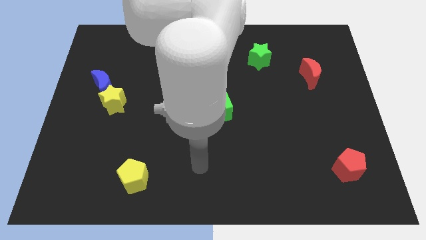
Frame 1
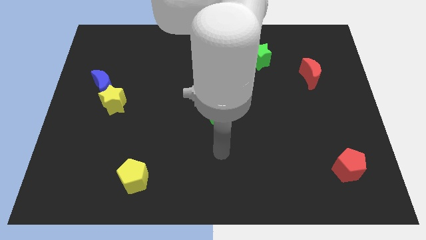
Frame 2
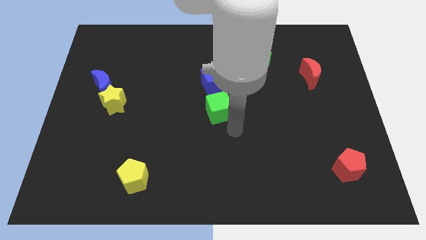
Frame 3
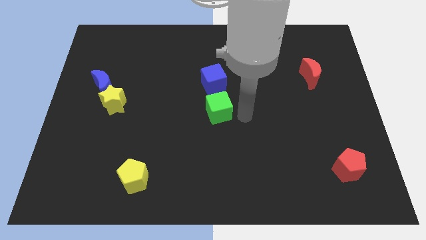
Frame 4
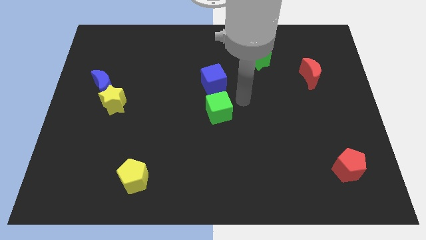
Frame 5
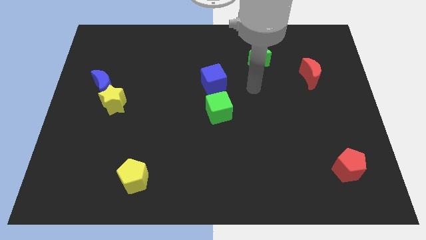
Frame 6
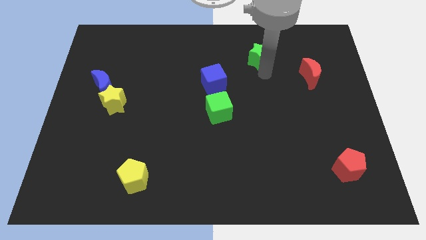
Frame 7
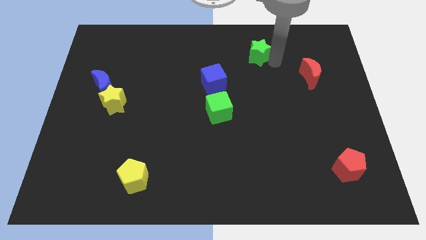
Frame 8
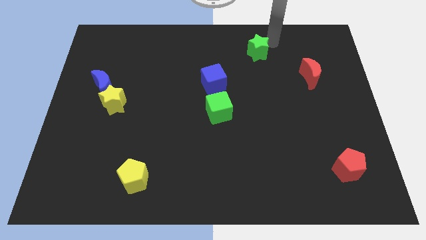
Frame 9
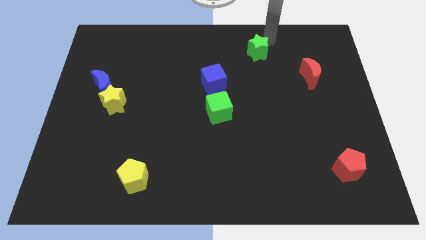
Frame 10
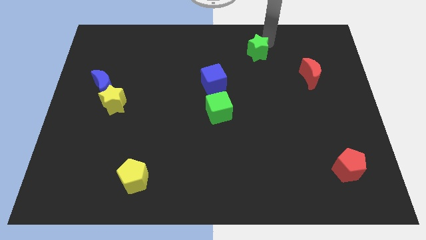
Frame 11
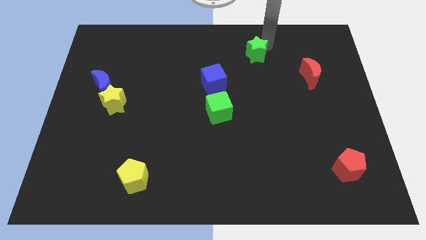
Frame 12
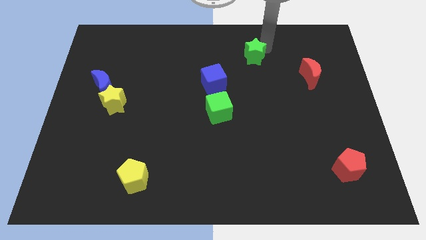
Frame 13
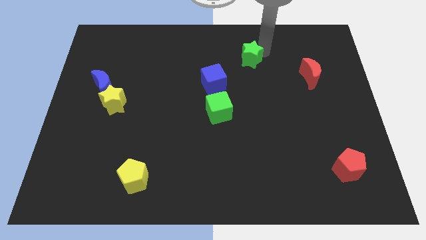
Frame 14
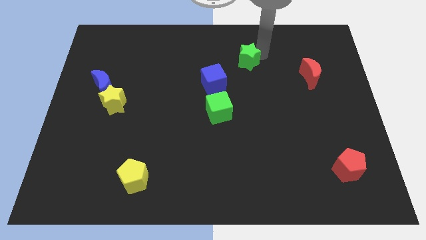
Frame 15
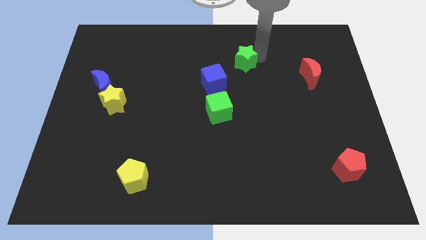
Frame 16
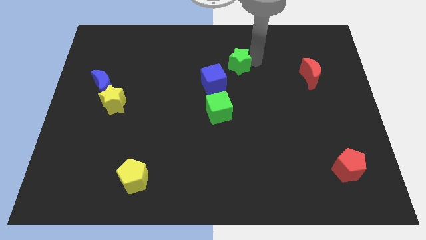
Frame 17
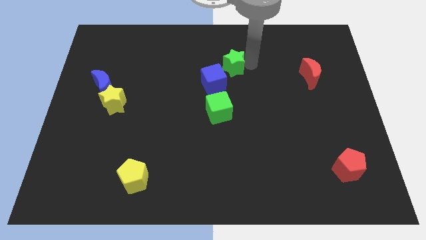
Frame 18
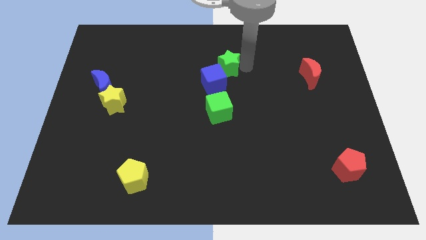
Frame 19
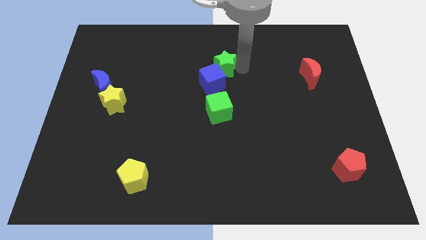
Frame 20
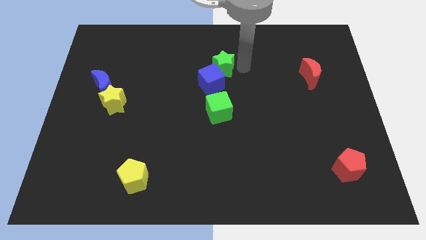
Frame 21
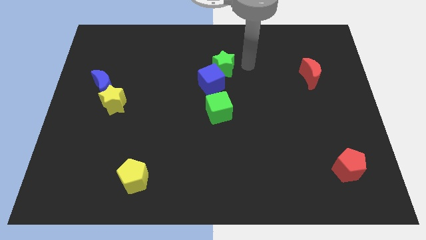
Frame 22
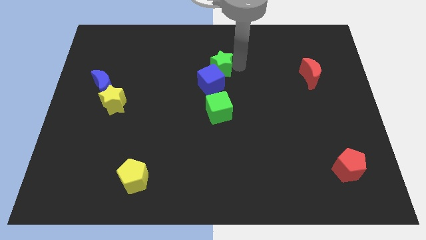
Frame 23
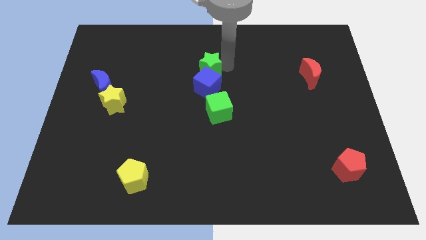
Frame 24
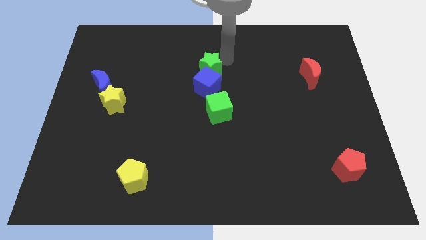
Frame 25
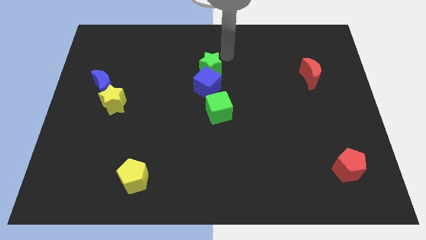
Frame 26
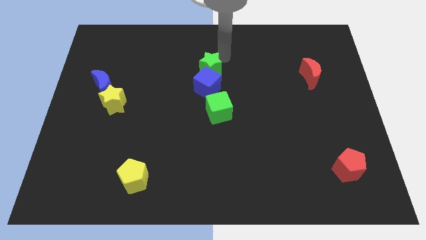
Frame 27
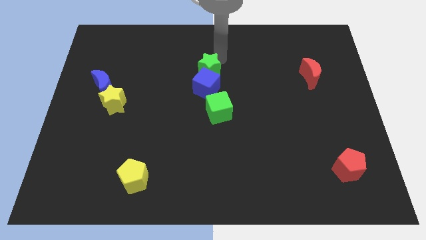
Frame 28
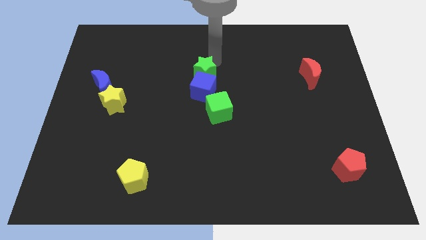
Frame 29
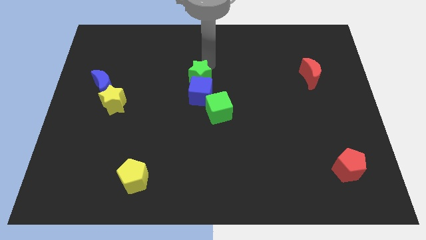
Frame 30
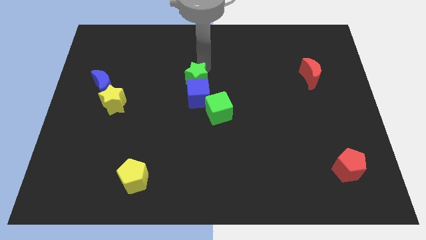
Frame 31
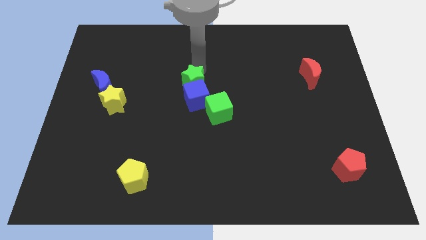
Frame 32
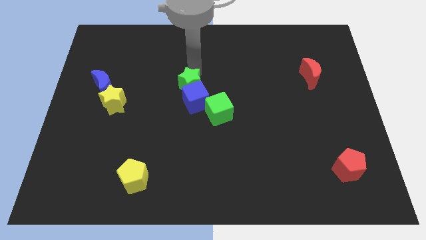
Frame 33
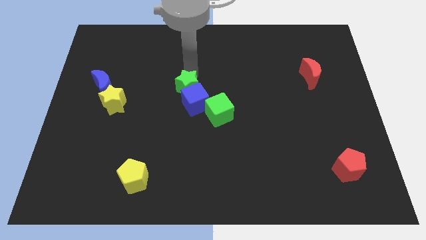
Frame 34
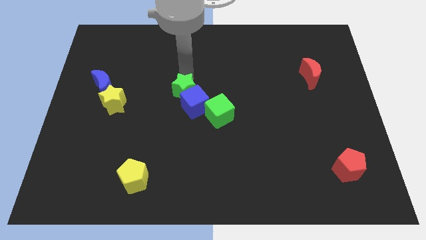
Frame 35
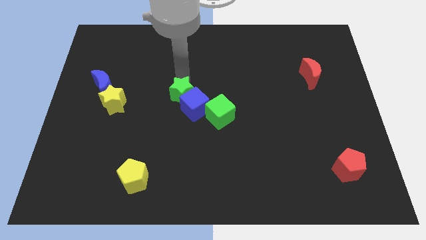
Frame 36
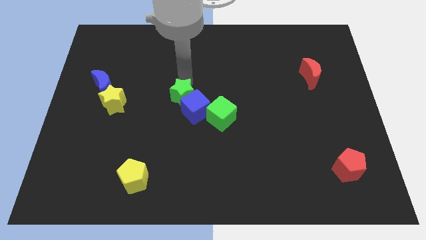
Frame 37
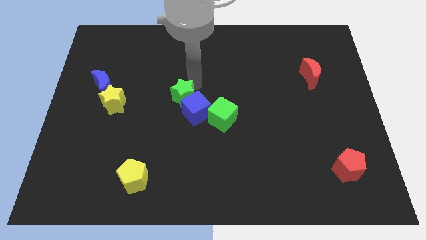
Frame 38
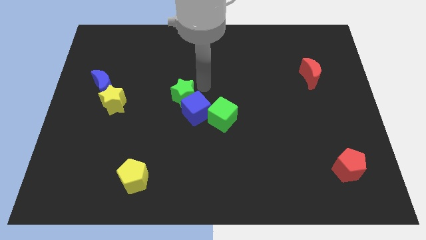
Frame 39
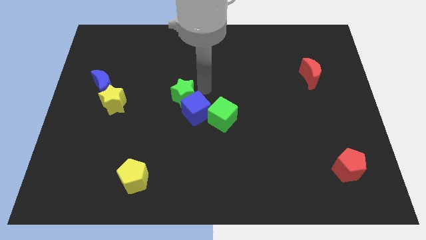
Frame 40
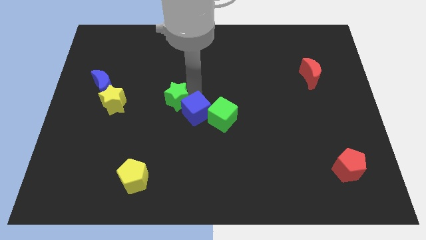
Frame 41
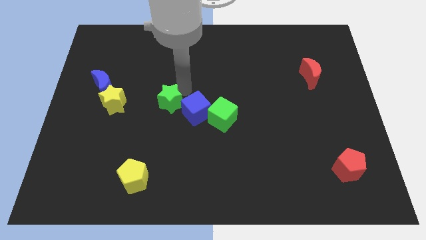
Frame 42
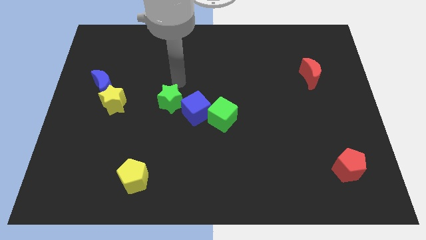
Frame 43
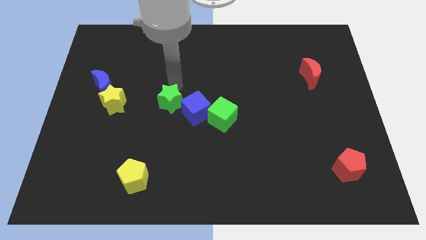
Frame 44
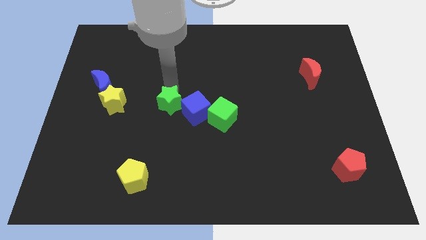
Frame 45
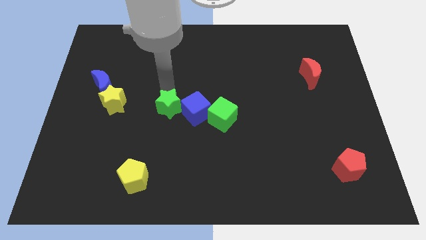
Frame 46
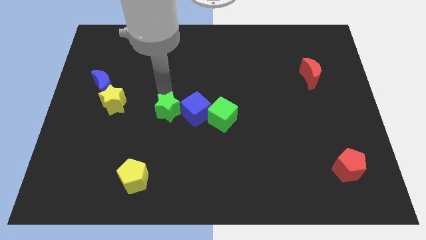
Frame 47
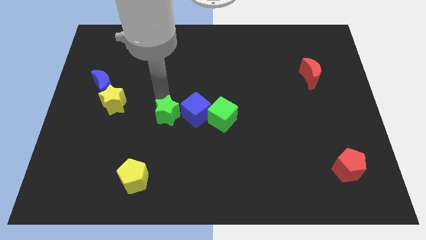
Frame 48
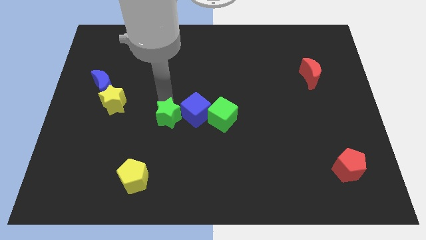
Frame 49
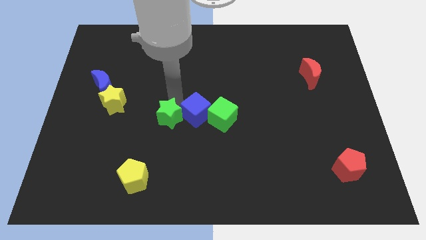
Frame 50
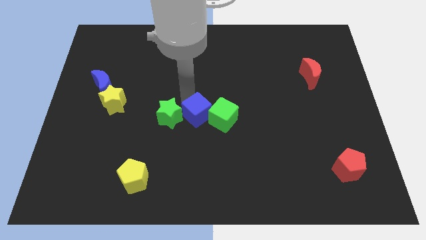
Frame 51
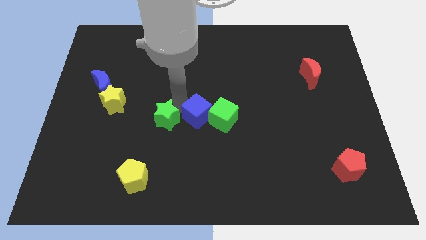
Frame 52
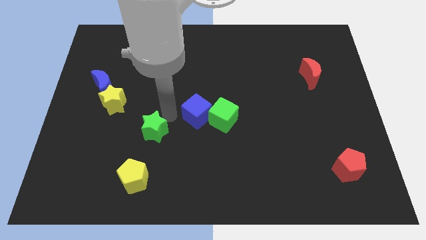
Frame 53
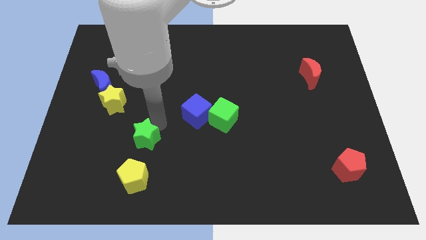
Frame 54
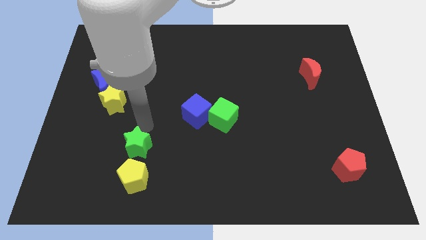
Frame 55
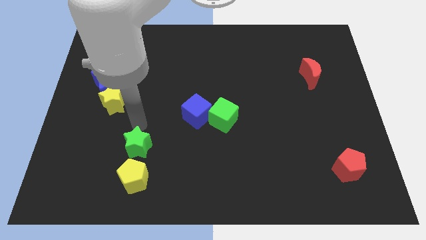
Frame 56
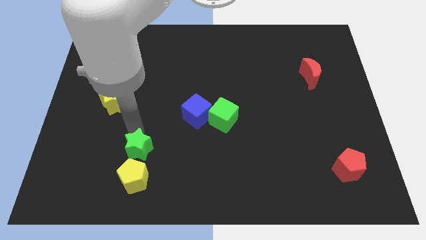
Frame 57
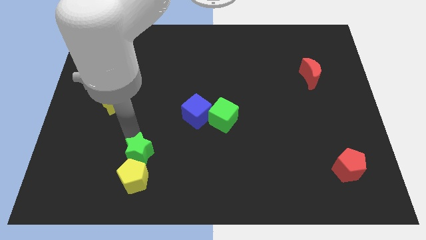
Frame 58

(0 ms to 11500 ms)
push the green star to the yellow pentagon

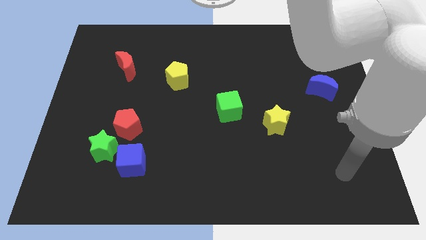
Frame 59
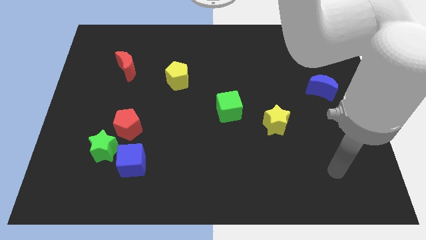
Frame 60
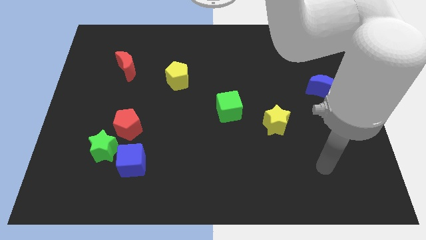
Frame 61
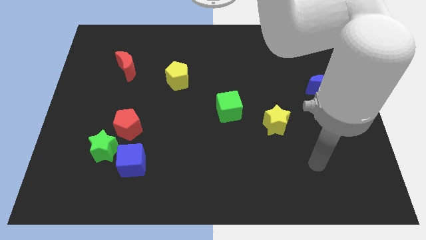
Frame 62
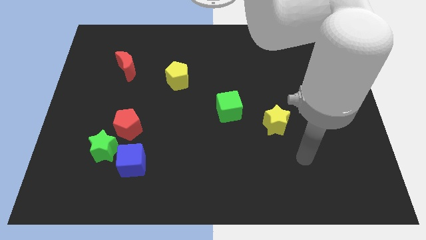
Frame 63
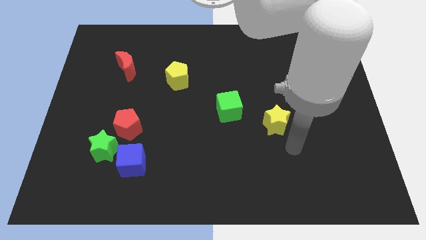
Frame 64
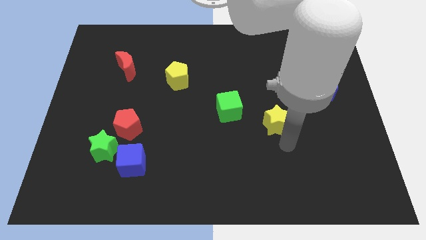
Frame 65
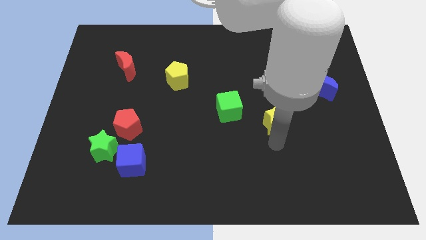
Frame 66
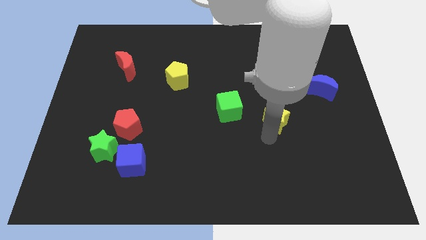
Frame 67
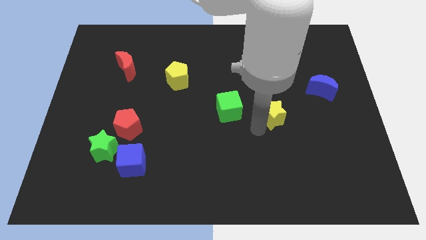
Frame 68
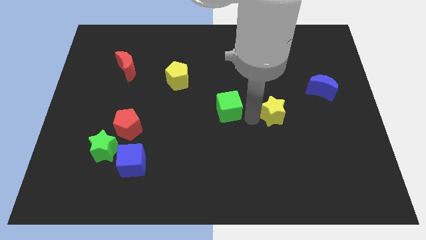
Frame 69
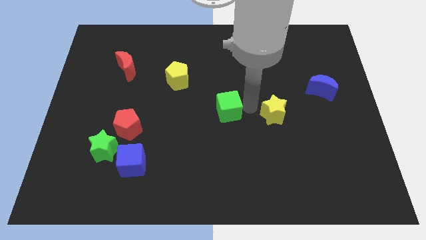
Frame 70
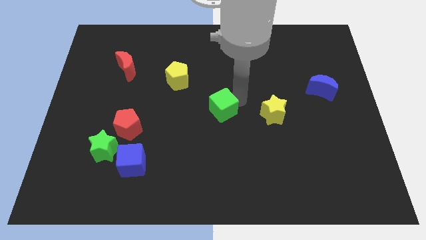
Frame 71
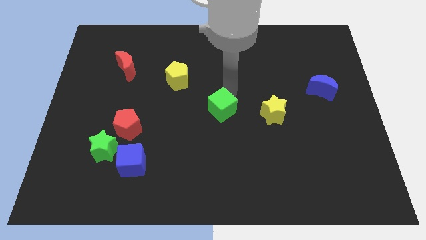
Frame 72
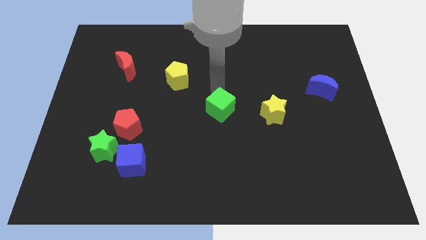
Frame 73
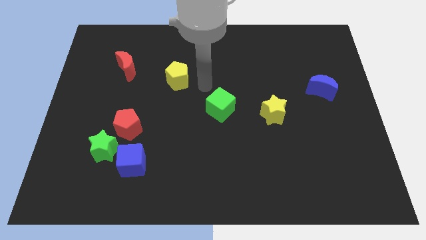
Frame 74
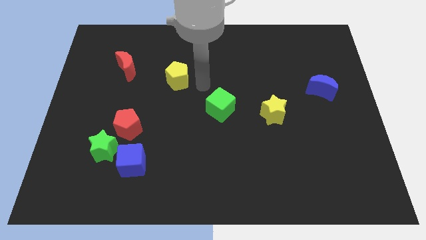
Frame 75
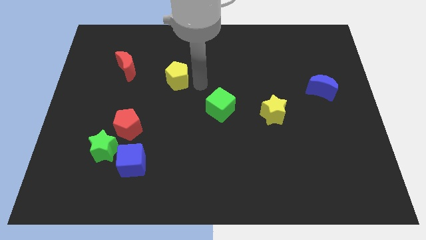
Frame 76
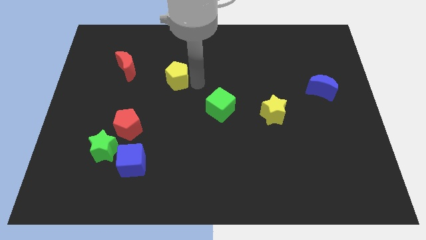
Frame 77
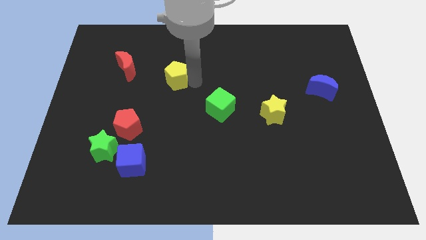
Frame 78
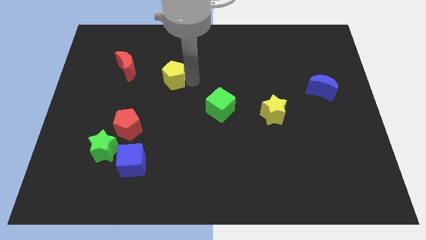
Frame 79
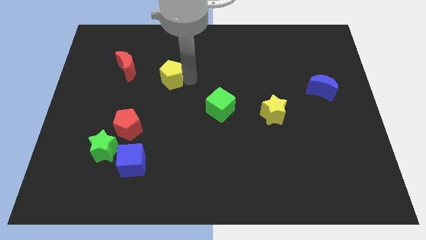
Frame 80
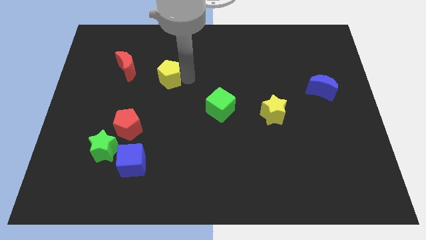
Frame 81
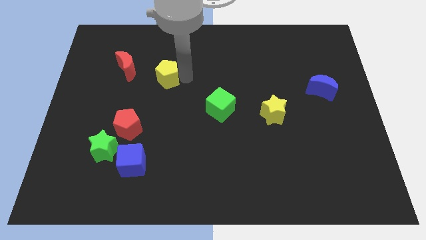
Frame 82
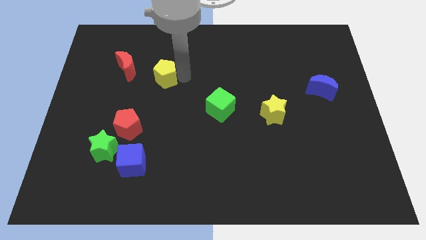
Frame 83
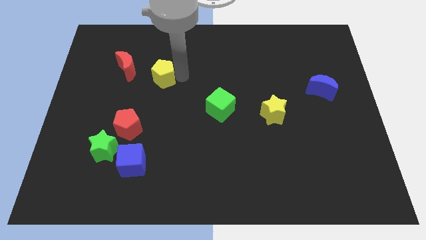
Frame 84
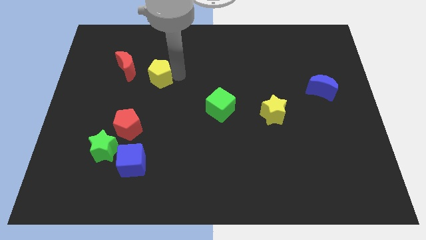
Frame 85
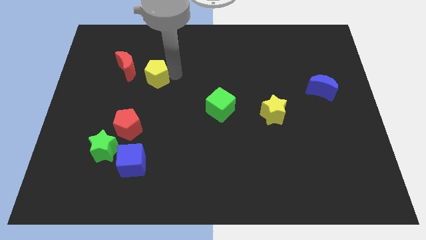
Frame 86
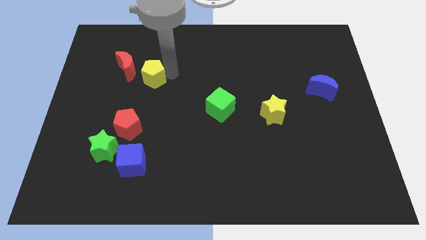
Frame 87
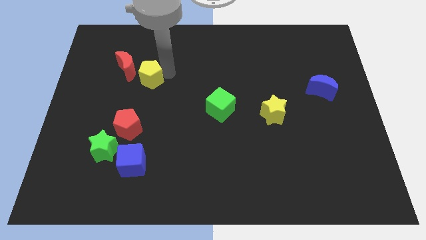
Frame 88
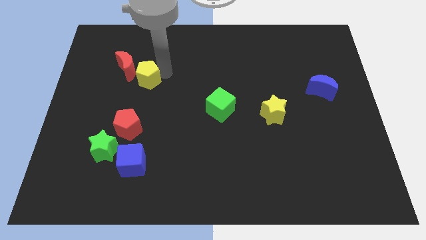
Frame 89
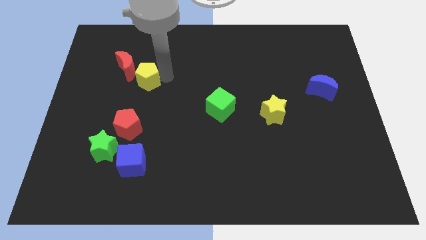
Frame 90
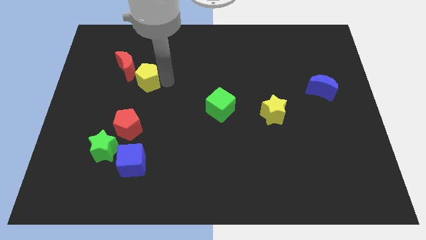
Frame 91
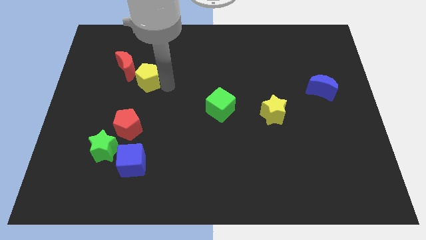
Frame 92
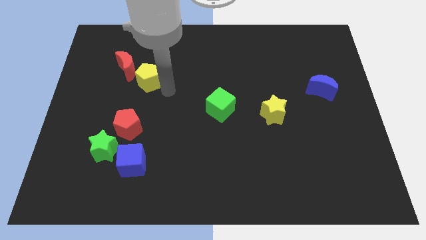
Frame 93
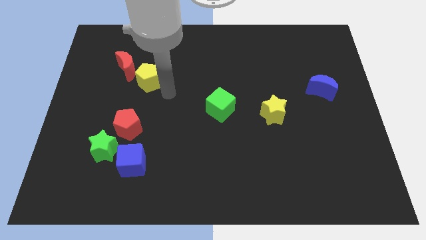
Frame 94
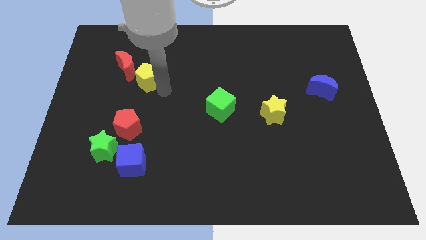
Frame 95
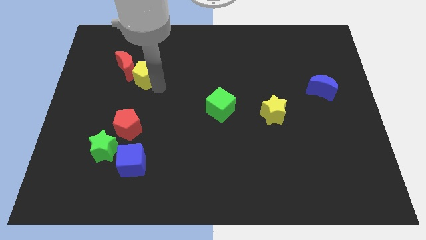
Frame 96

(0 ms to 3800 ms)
slide the yellow pentagon towards the red moon
